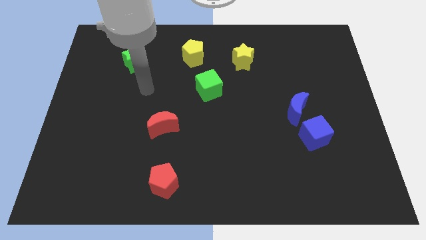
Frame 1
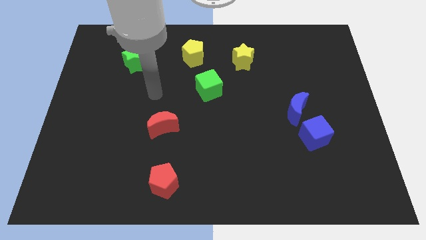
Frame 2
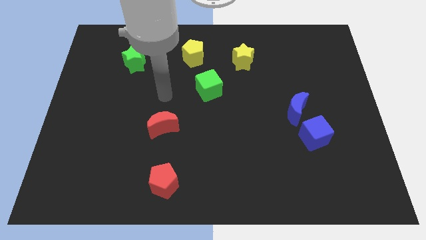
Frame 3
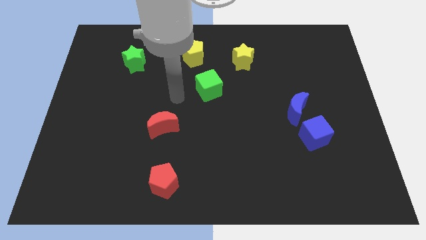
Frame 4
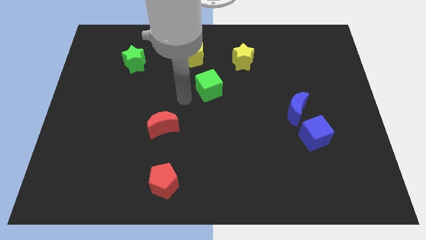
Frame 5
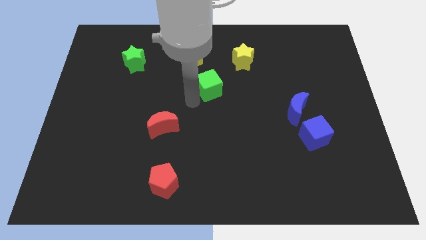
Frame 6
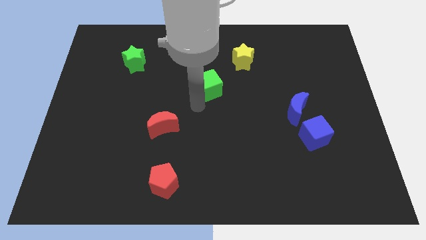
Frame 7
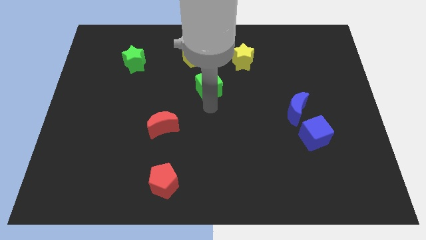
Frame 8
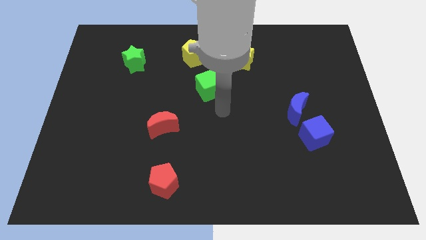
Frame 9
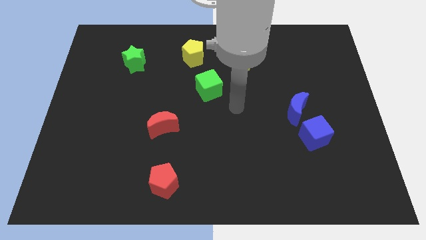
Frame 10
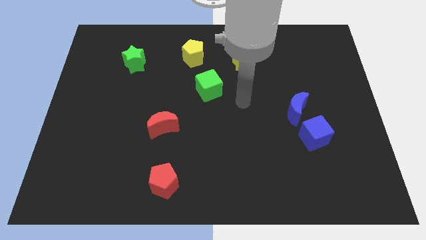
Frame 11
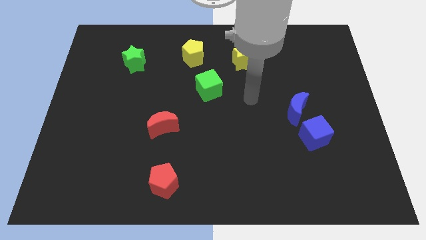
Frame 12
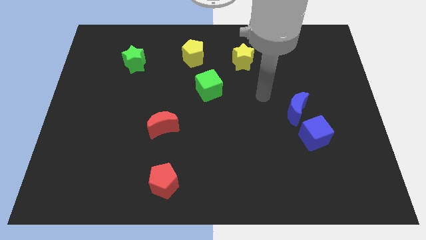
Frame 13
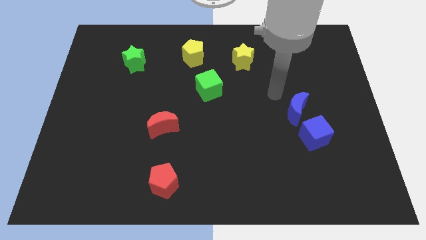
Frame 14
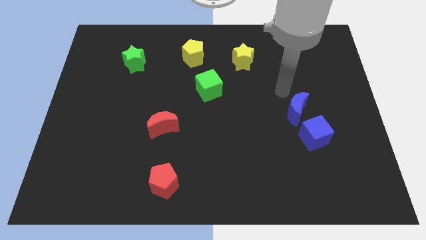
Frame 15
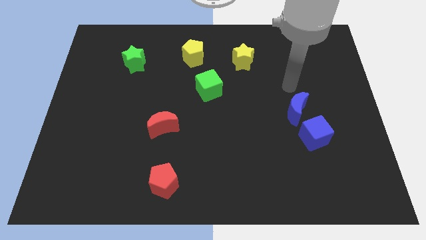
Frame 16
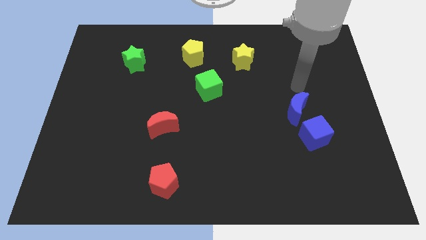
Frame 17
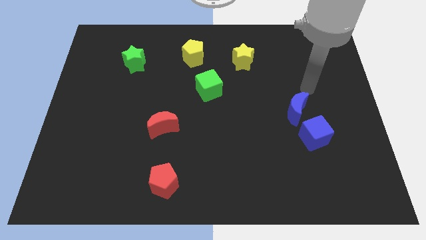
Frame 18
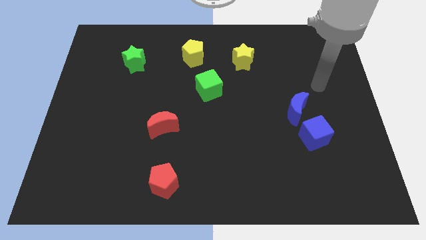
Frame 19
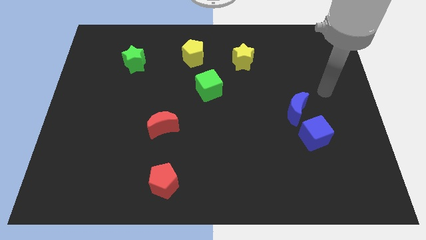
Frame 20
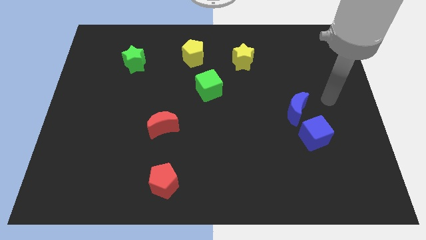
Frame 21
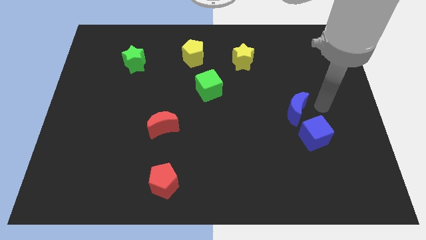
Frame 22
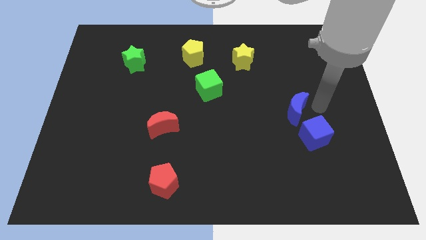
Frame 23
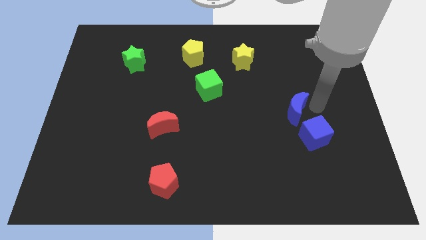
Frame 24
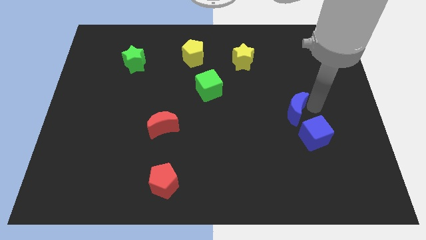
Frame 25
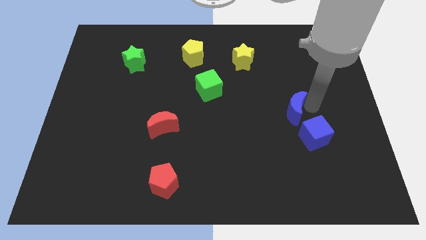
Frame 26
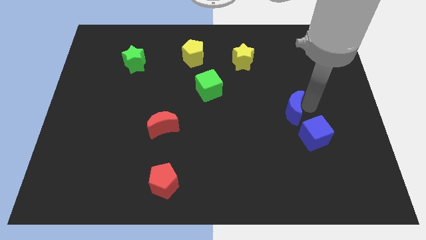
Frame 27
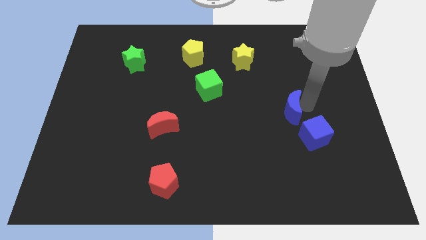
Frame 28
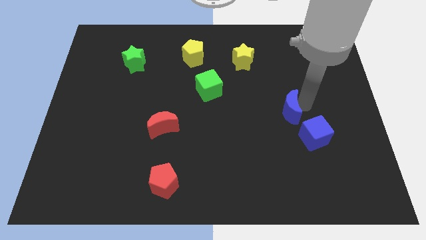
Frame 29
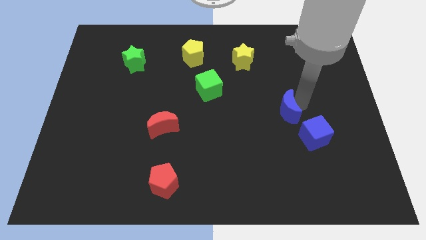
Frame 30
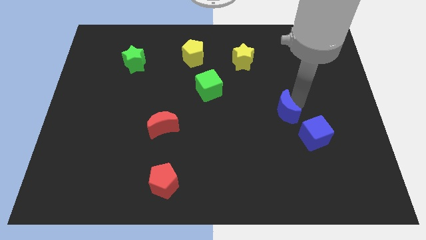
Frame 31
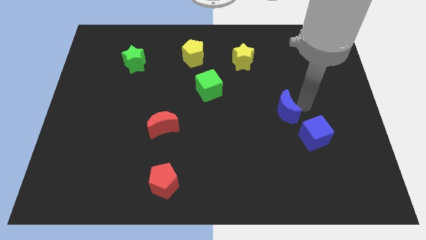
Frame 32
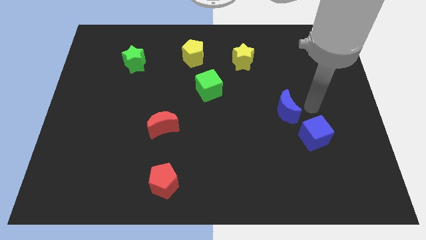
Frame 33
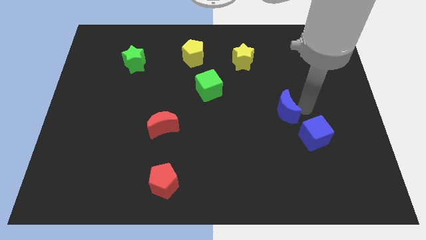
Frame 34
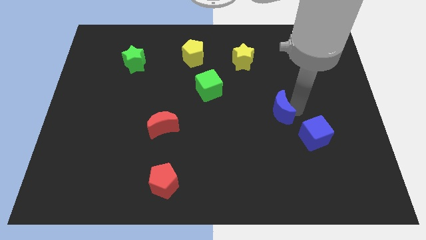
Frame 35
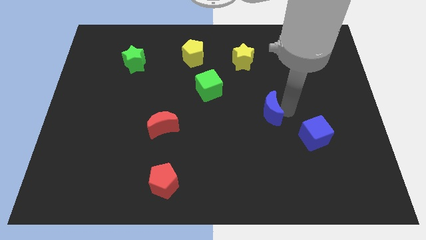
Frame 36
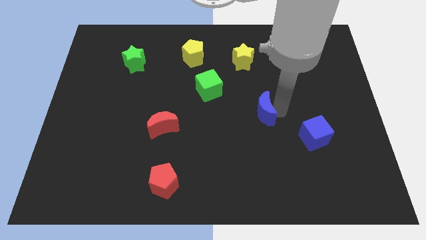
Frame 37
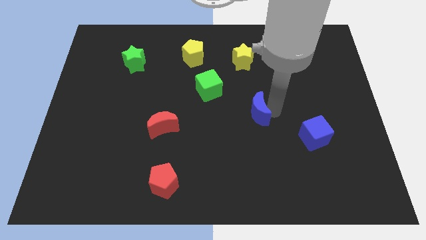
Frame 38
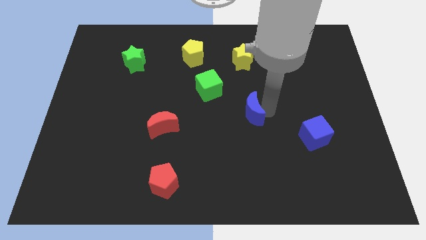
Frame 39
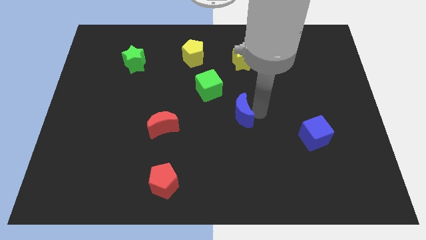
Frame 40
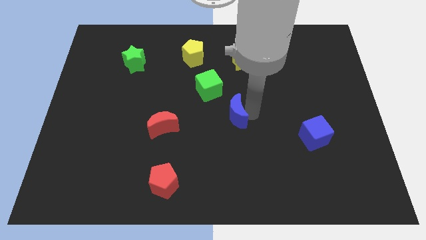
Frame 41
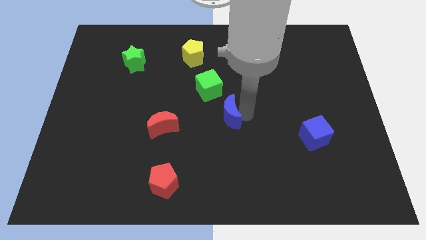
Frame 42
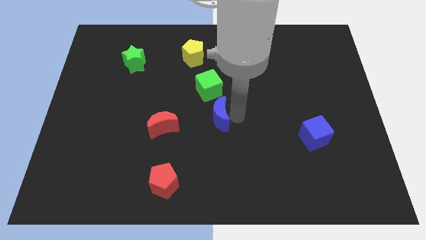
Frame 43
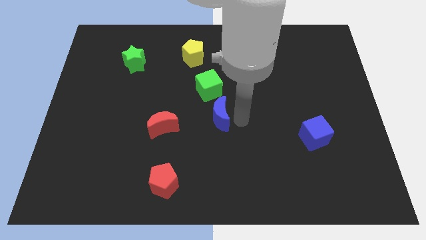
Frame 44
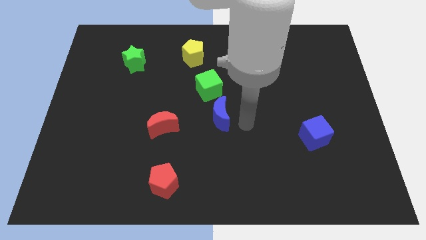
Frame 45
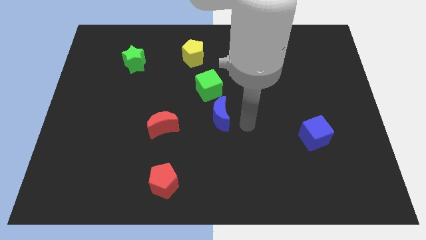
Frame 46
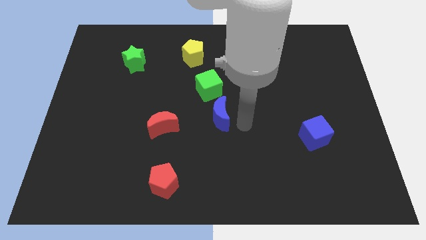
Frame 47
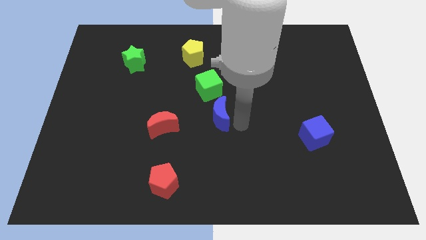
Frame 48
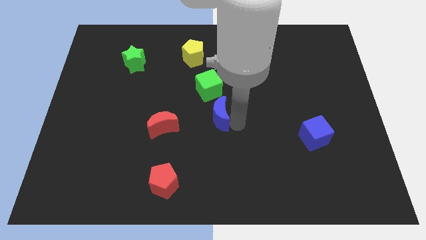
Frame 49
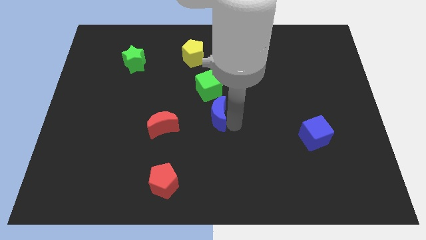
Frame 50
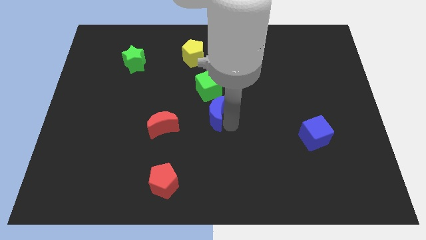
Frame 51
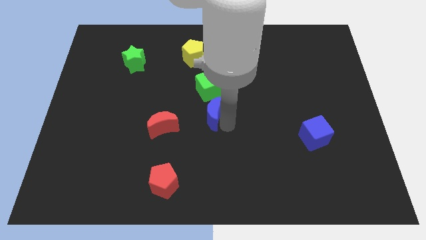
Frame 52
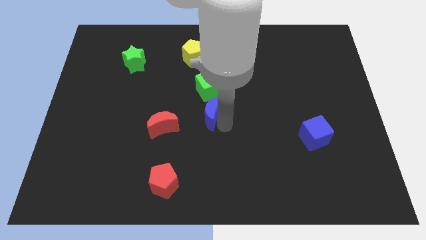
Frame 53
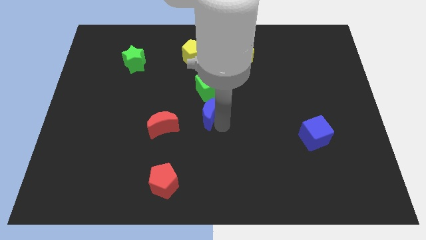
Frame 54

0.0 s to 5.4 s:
slide the blue moon to the left

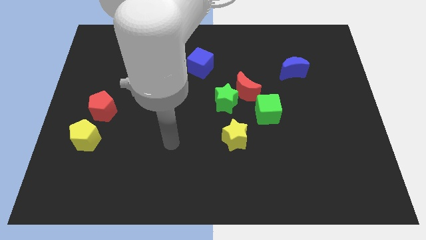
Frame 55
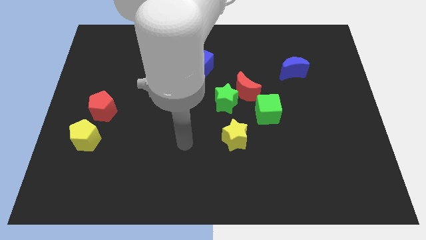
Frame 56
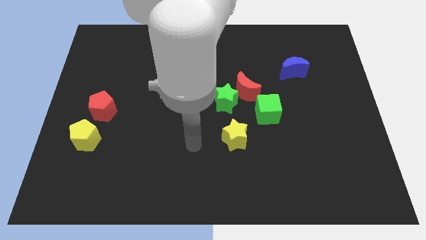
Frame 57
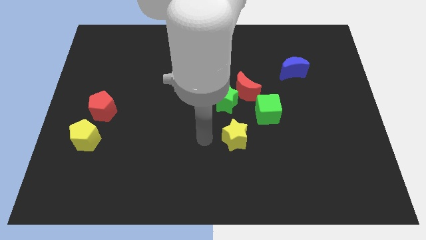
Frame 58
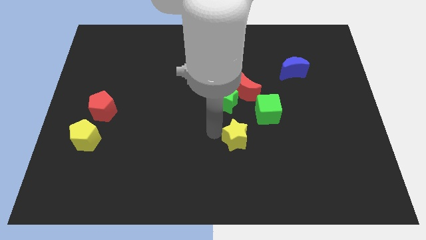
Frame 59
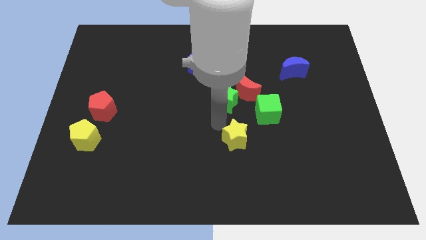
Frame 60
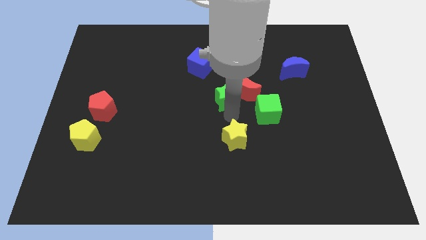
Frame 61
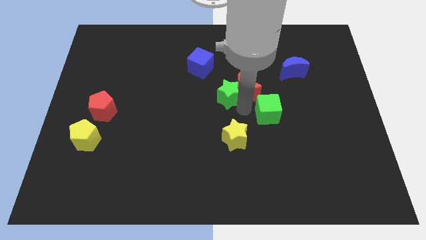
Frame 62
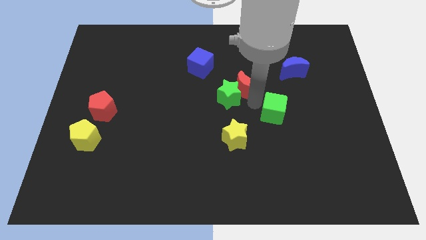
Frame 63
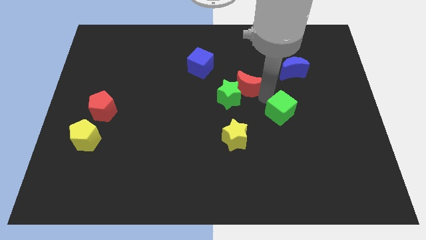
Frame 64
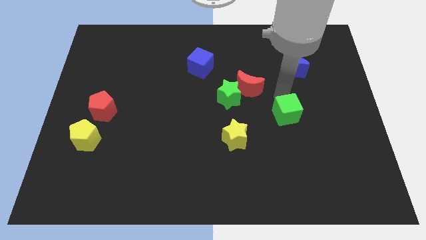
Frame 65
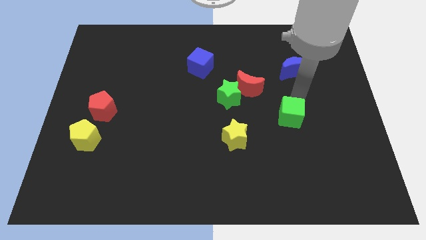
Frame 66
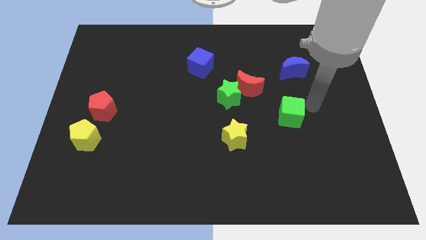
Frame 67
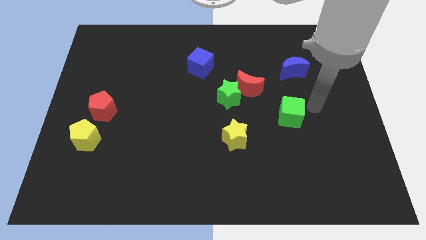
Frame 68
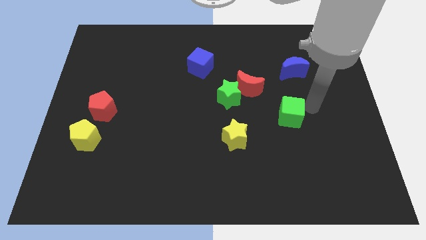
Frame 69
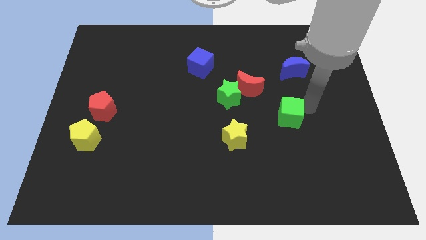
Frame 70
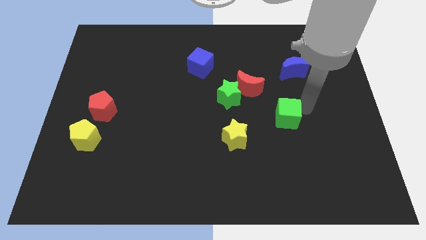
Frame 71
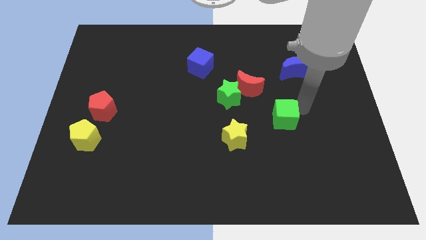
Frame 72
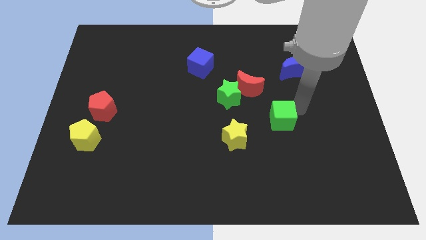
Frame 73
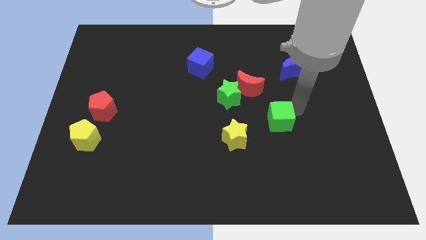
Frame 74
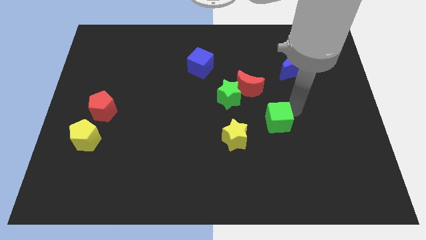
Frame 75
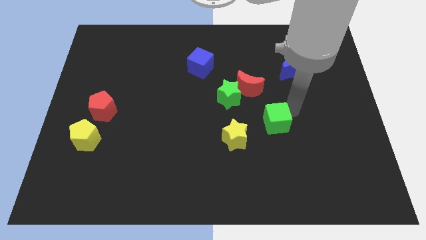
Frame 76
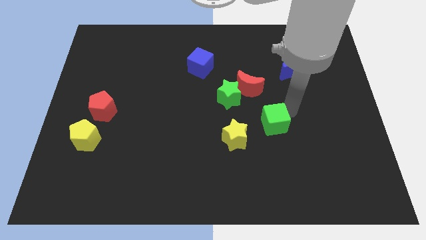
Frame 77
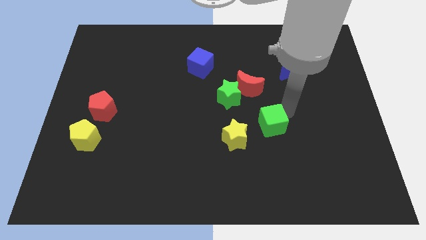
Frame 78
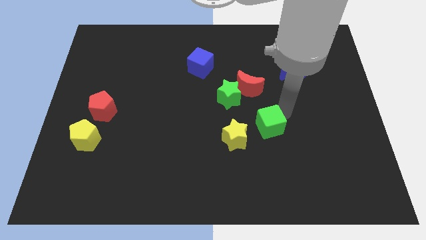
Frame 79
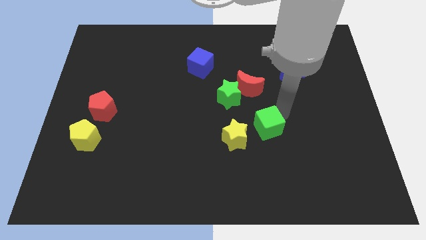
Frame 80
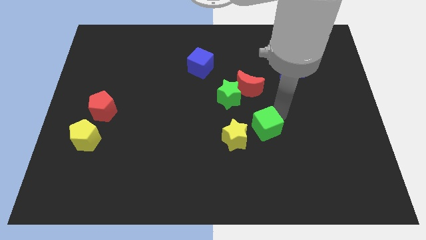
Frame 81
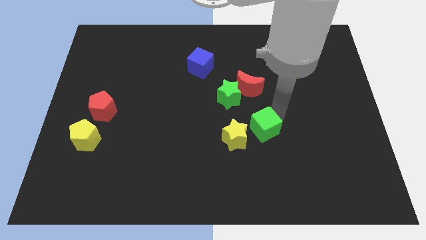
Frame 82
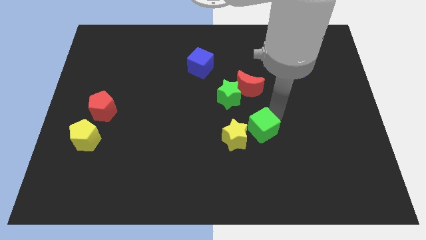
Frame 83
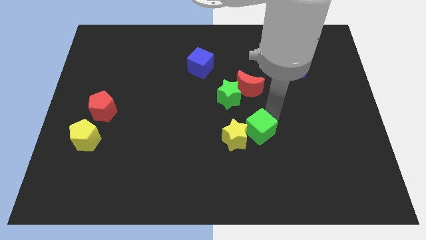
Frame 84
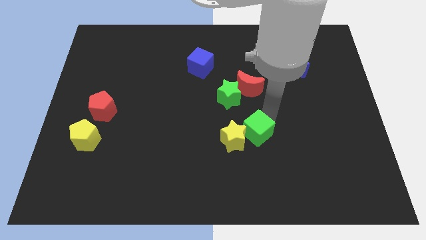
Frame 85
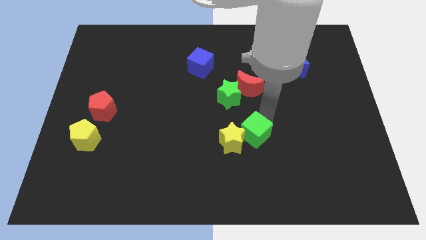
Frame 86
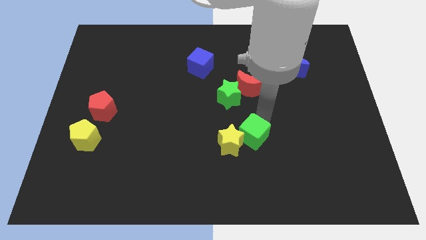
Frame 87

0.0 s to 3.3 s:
slightly move the green cube downwards and left diagonally
